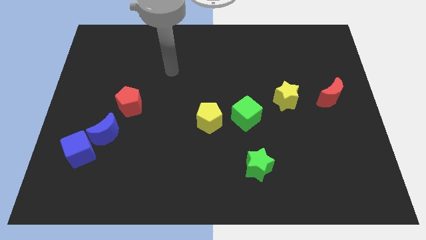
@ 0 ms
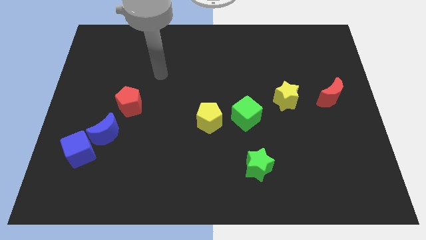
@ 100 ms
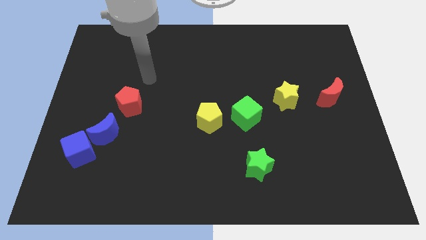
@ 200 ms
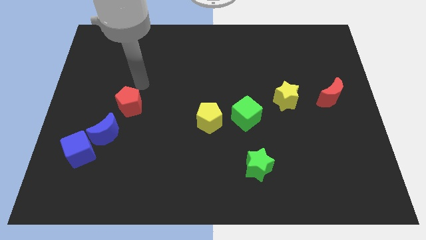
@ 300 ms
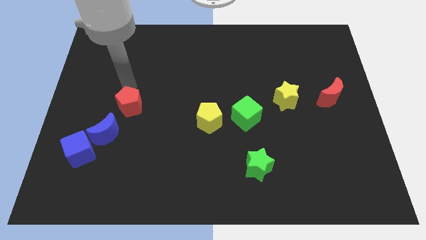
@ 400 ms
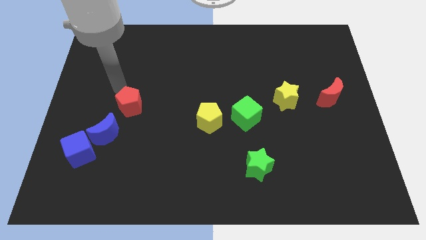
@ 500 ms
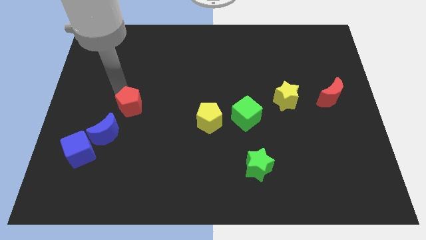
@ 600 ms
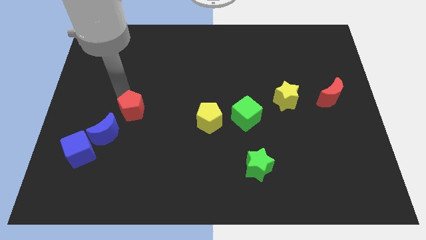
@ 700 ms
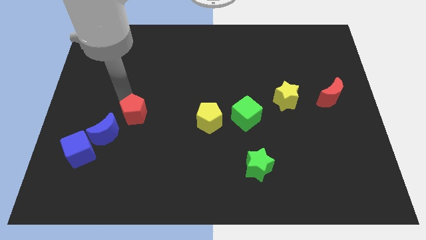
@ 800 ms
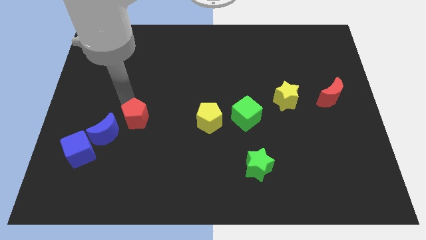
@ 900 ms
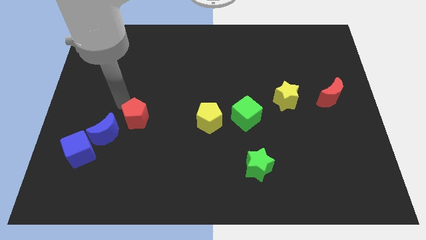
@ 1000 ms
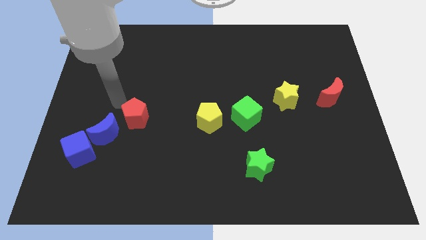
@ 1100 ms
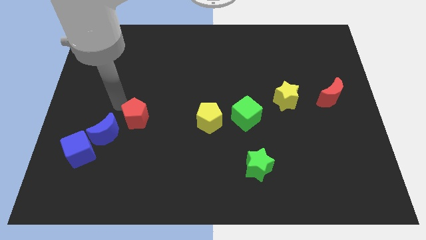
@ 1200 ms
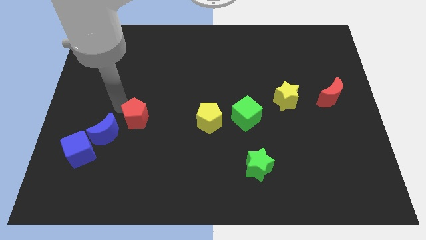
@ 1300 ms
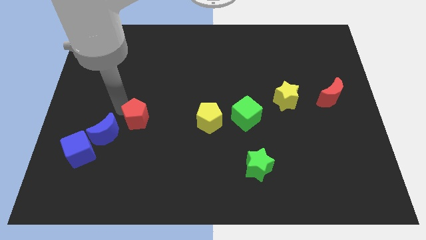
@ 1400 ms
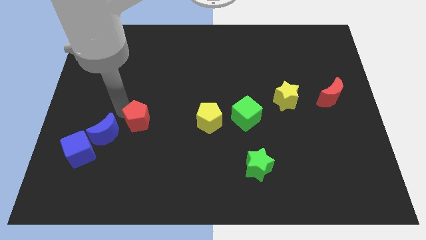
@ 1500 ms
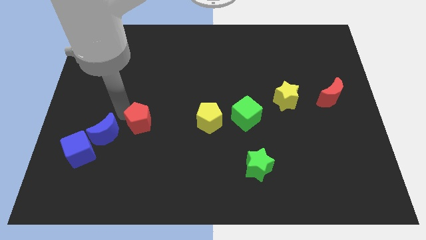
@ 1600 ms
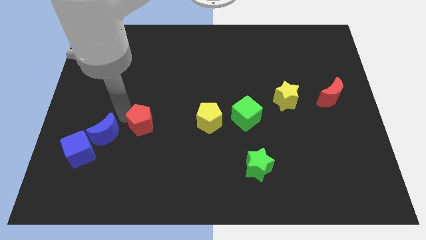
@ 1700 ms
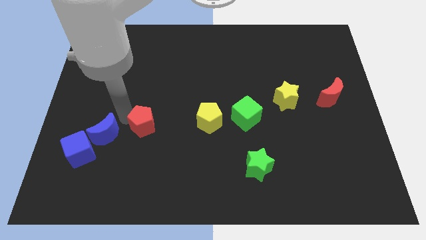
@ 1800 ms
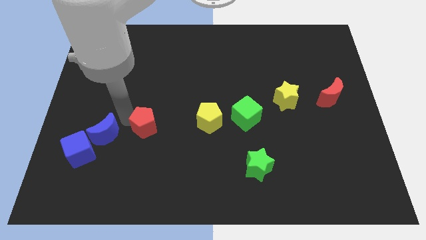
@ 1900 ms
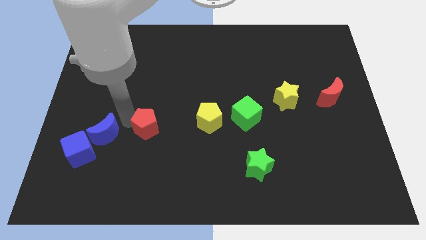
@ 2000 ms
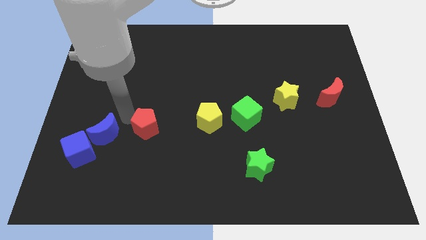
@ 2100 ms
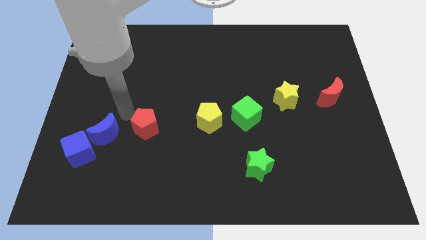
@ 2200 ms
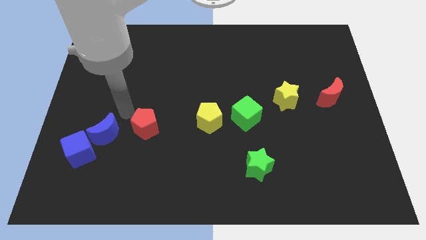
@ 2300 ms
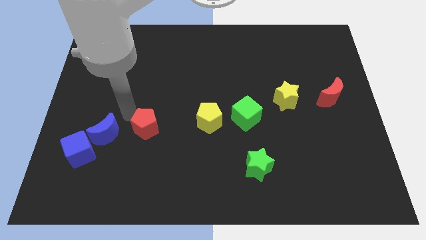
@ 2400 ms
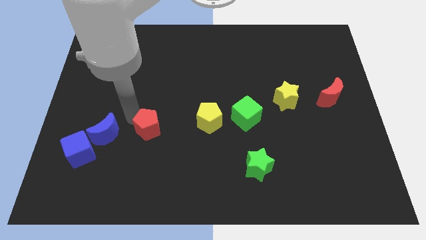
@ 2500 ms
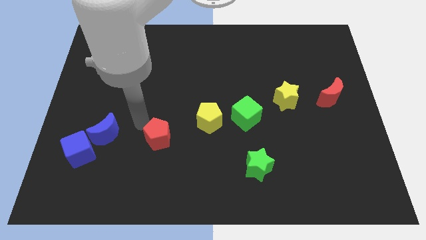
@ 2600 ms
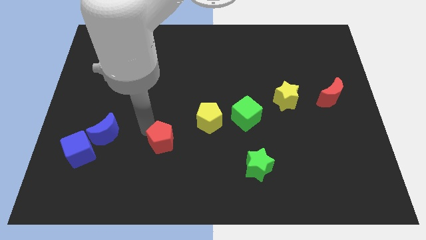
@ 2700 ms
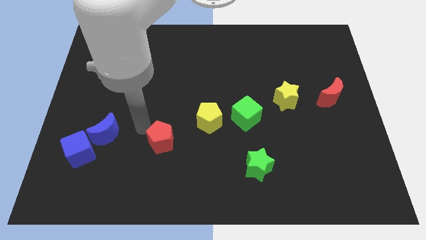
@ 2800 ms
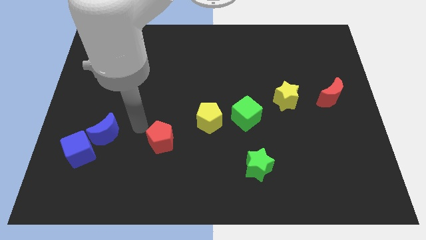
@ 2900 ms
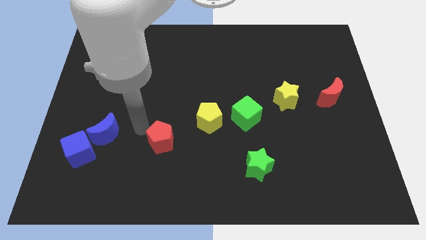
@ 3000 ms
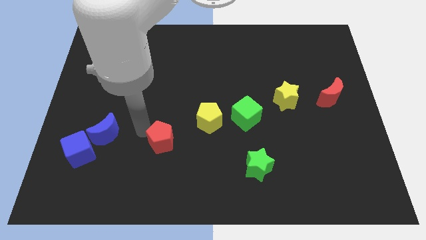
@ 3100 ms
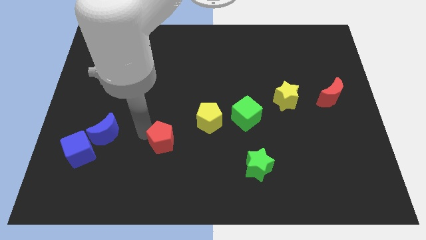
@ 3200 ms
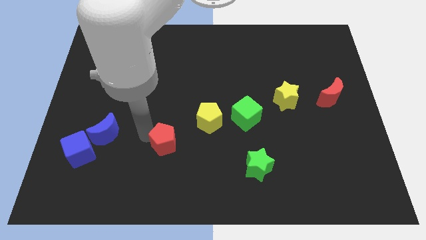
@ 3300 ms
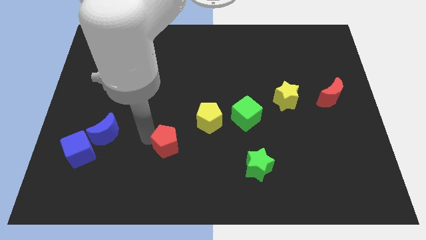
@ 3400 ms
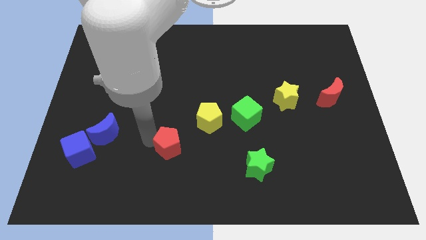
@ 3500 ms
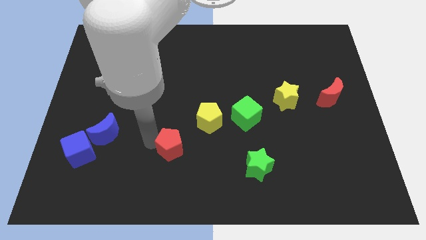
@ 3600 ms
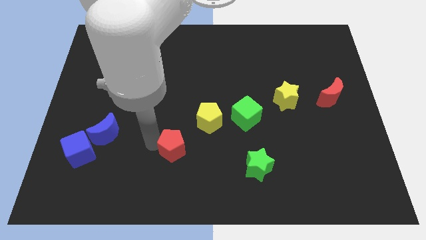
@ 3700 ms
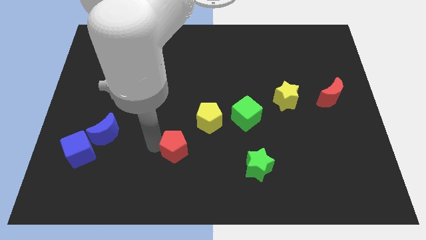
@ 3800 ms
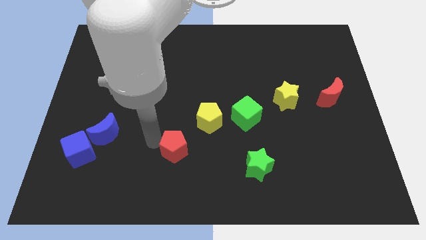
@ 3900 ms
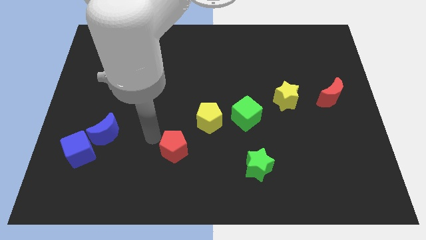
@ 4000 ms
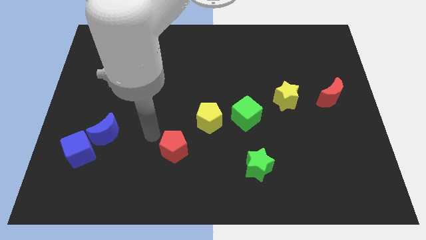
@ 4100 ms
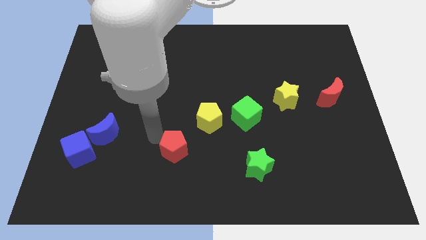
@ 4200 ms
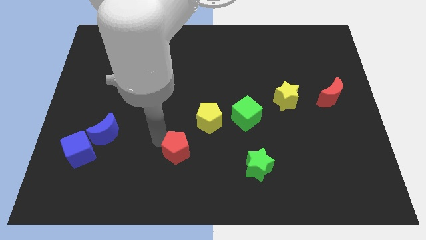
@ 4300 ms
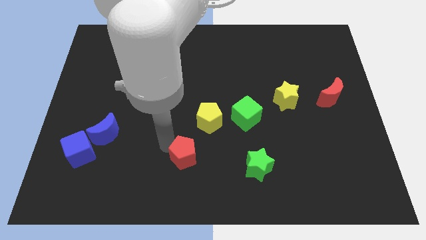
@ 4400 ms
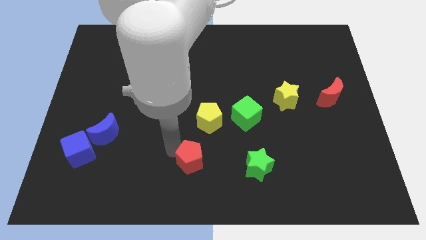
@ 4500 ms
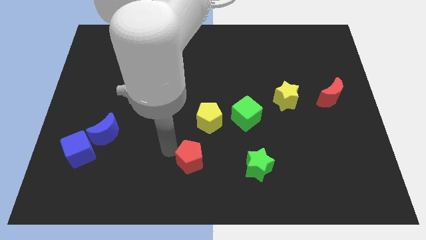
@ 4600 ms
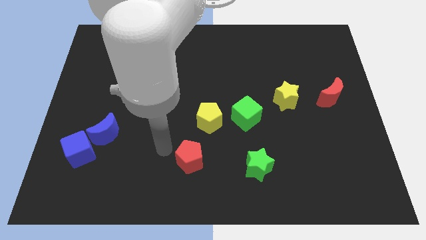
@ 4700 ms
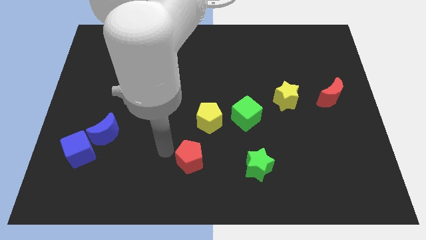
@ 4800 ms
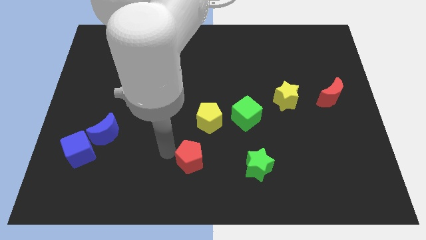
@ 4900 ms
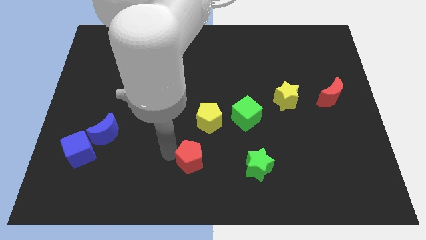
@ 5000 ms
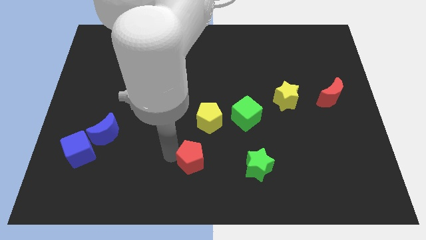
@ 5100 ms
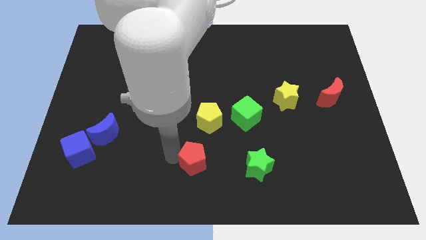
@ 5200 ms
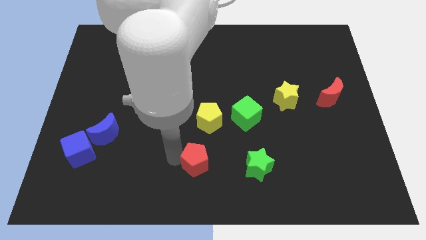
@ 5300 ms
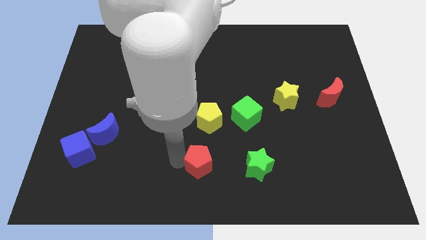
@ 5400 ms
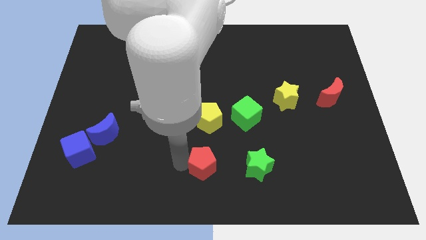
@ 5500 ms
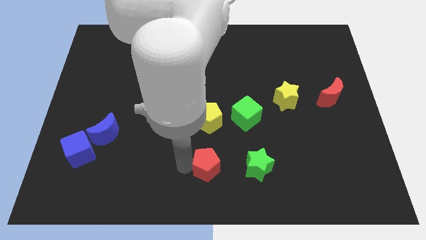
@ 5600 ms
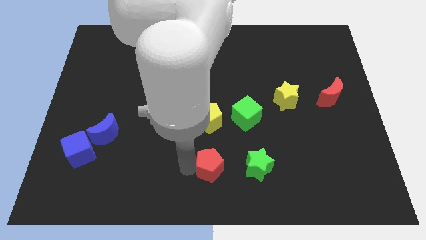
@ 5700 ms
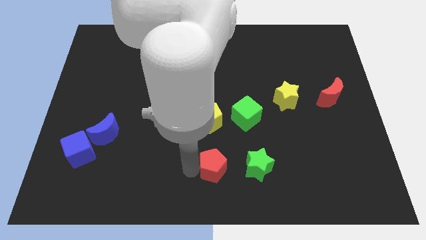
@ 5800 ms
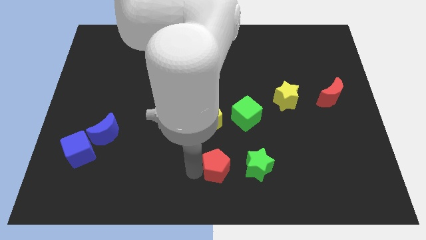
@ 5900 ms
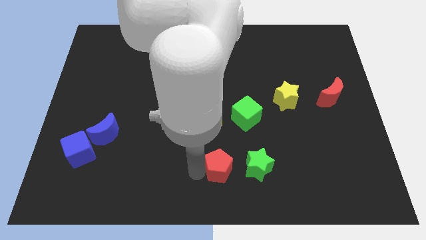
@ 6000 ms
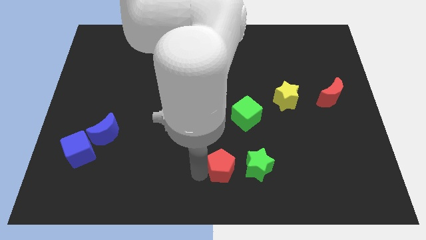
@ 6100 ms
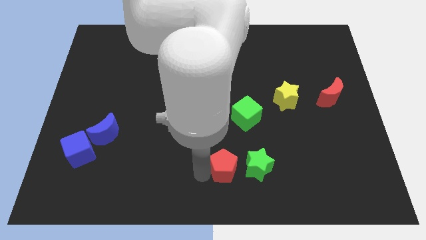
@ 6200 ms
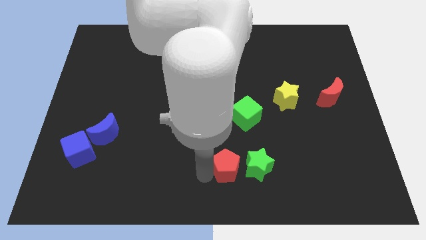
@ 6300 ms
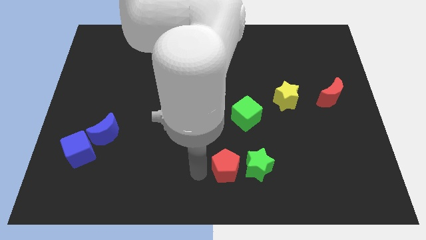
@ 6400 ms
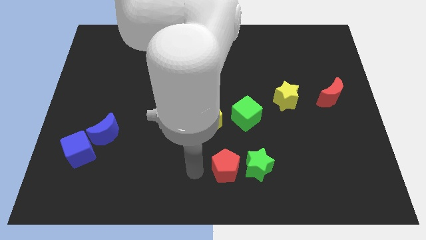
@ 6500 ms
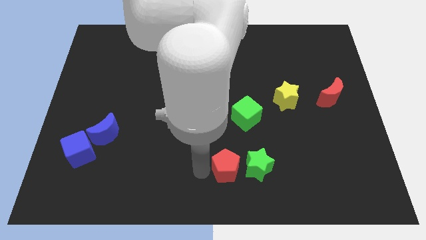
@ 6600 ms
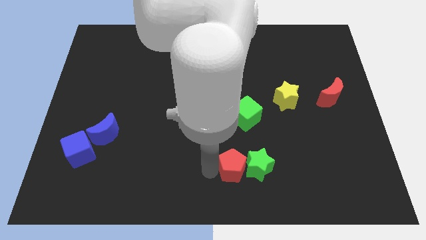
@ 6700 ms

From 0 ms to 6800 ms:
put the red pentagon next to the green star
